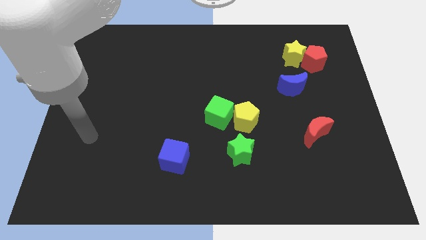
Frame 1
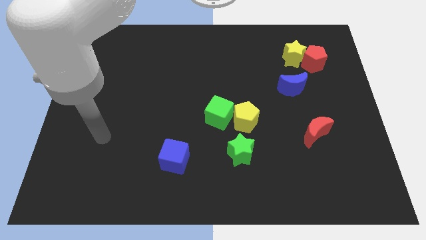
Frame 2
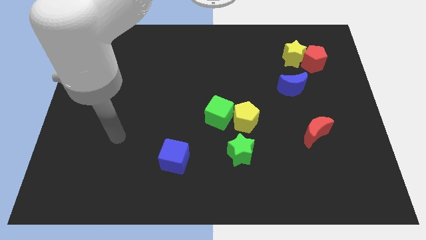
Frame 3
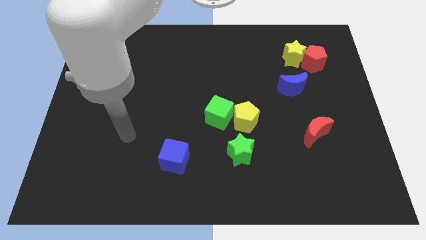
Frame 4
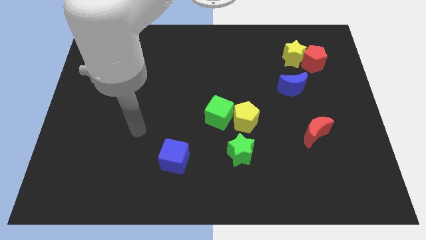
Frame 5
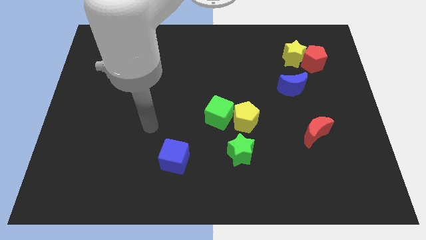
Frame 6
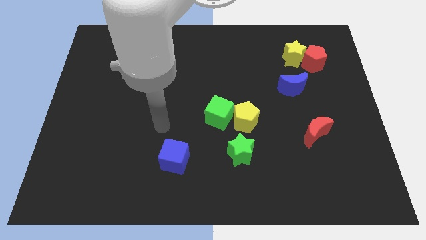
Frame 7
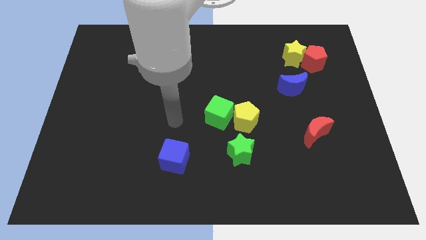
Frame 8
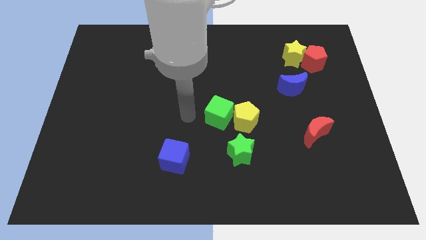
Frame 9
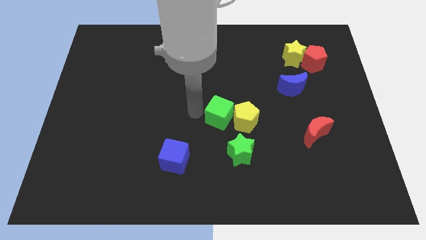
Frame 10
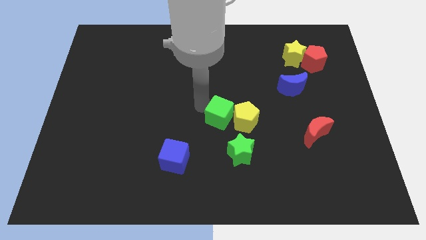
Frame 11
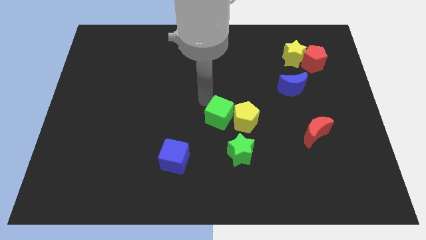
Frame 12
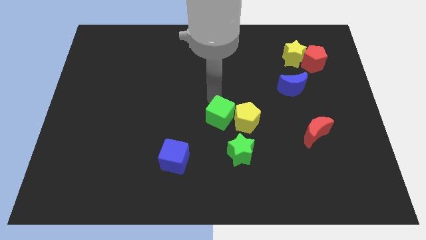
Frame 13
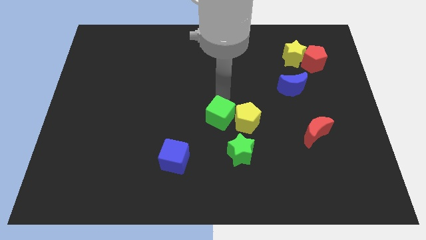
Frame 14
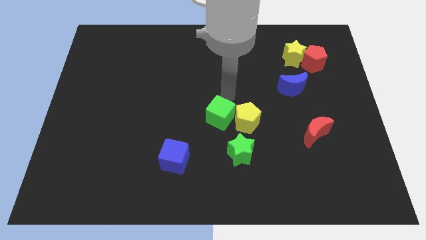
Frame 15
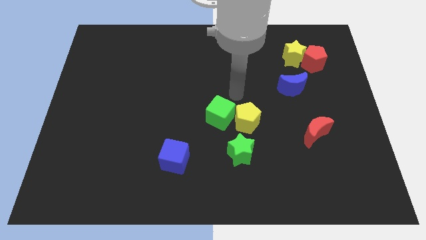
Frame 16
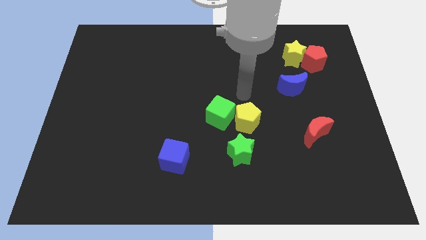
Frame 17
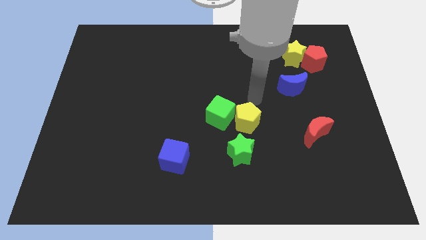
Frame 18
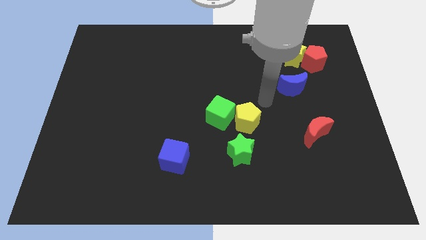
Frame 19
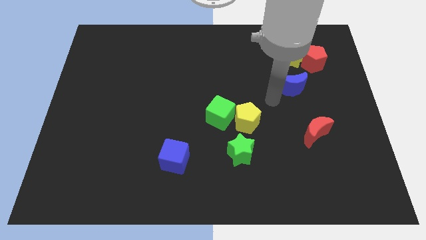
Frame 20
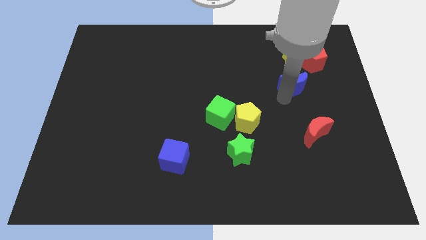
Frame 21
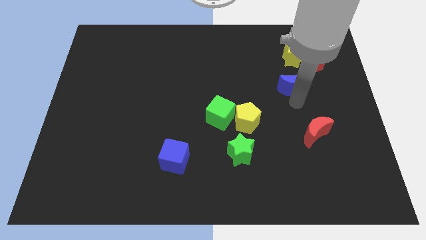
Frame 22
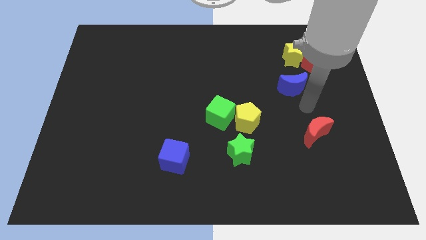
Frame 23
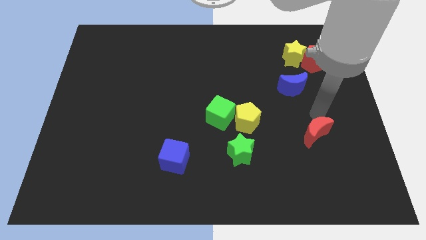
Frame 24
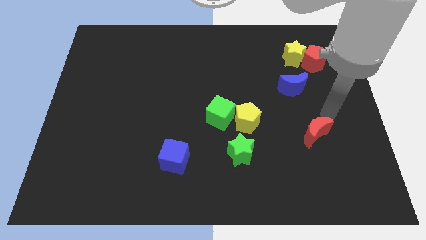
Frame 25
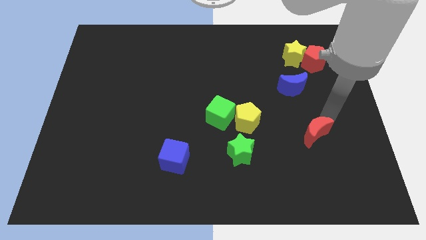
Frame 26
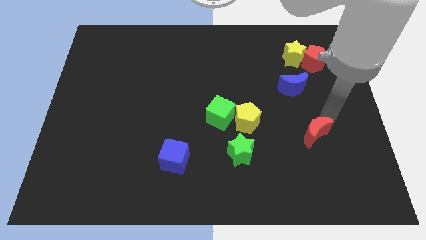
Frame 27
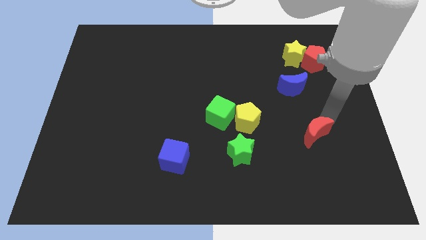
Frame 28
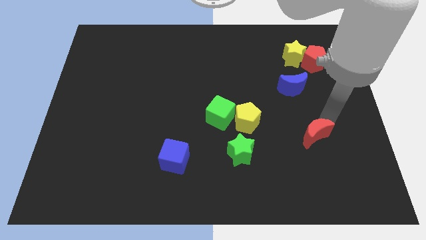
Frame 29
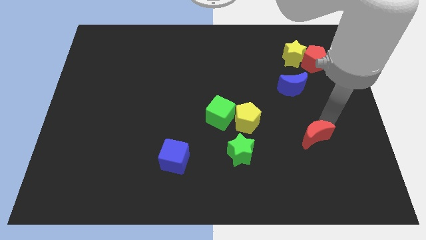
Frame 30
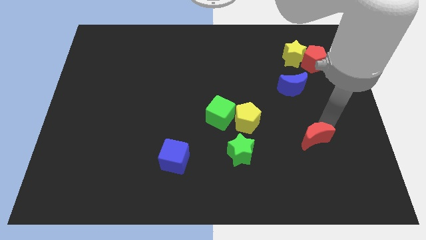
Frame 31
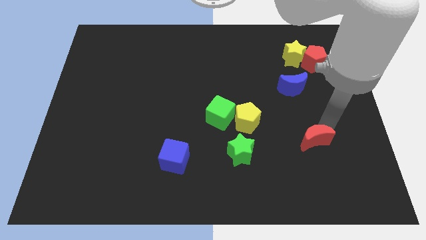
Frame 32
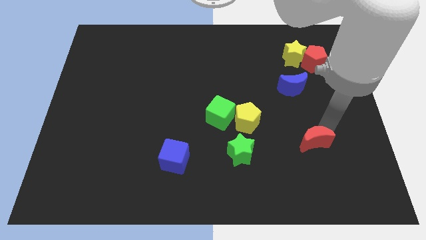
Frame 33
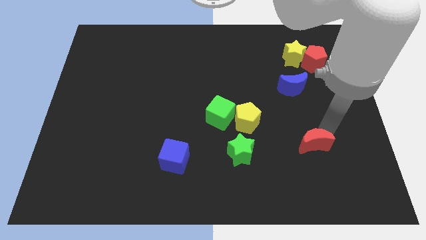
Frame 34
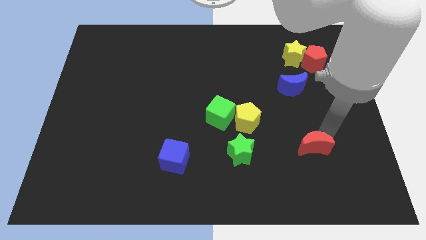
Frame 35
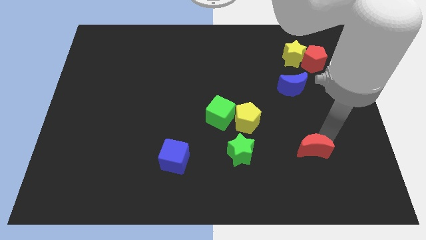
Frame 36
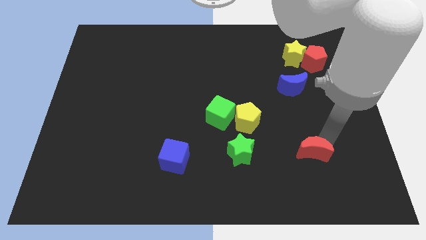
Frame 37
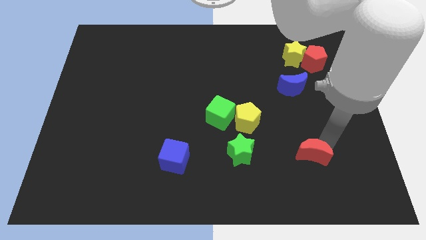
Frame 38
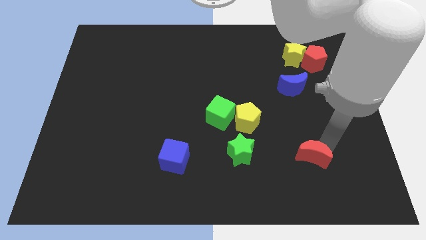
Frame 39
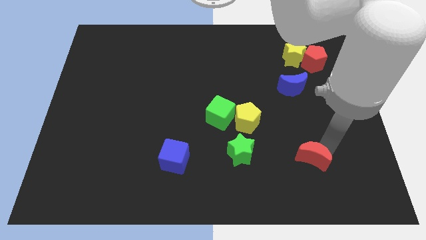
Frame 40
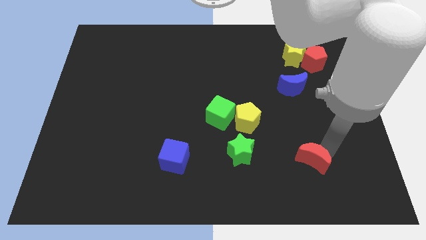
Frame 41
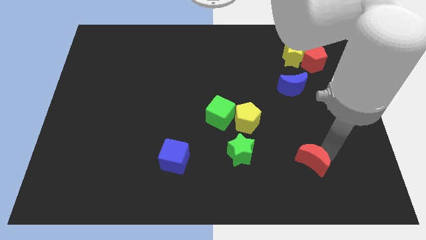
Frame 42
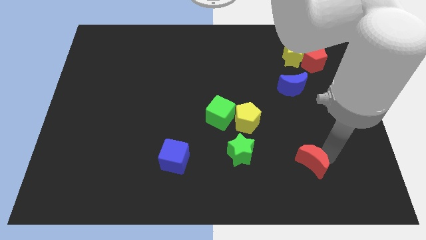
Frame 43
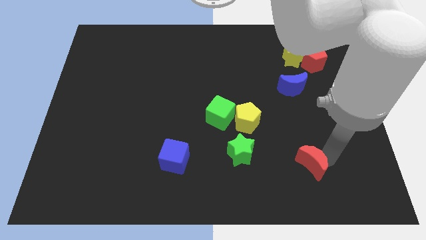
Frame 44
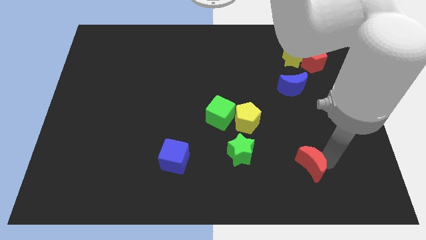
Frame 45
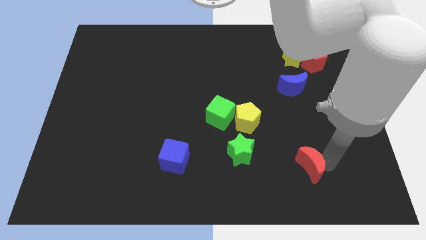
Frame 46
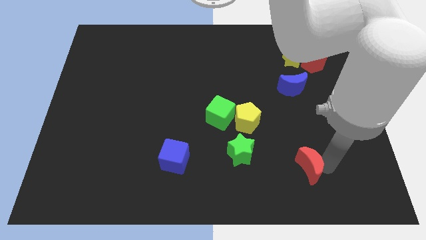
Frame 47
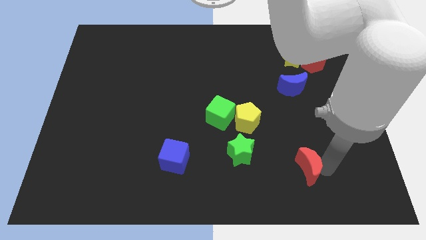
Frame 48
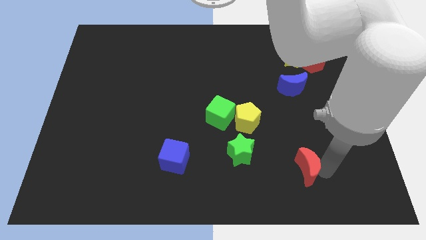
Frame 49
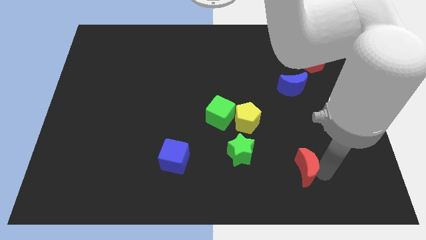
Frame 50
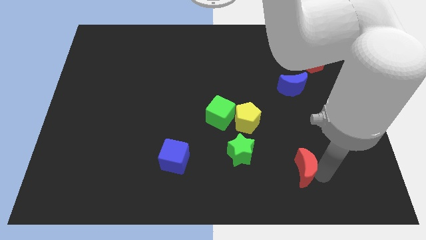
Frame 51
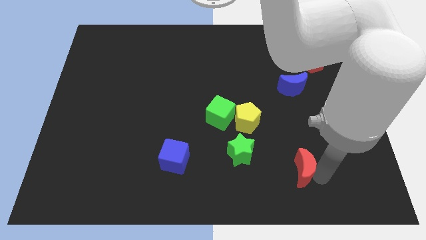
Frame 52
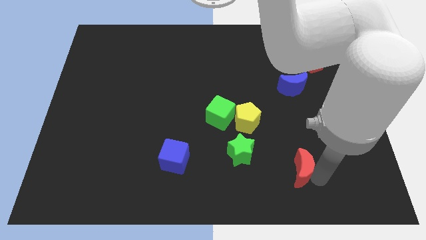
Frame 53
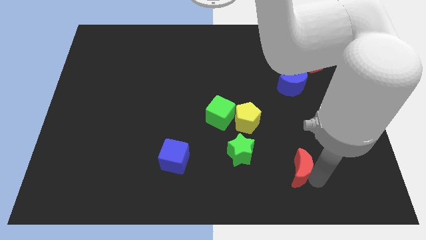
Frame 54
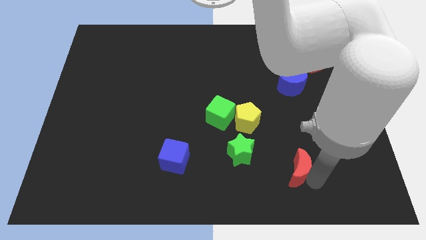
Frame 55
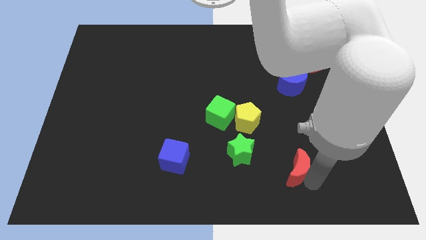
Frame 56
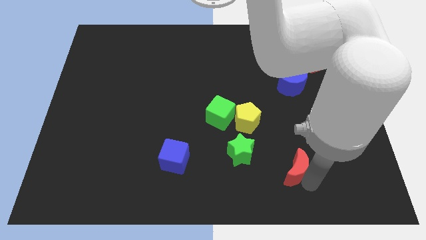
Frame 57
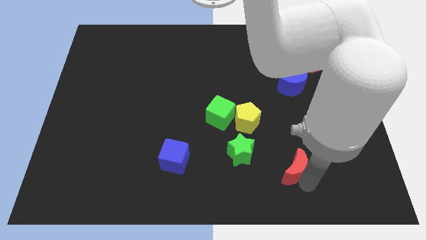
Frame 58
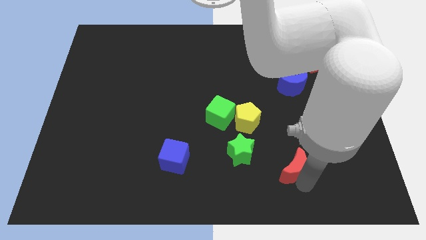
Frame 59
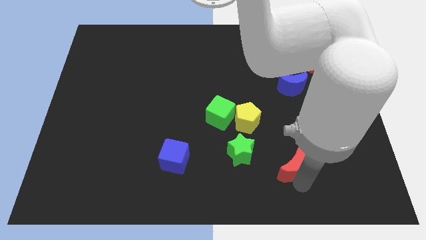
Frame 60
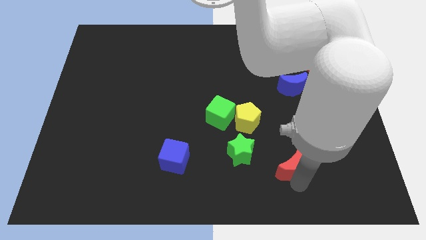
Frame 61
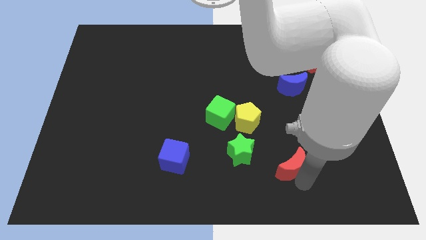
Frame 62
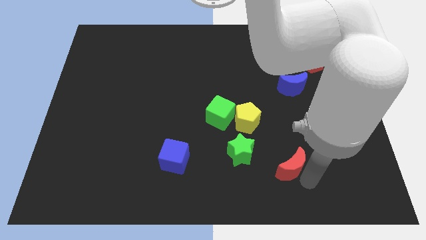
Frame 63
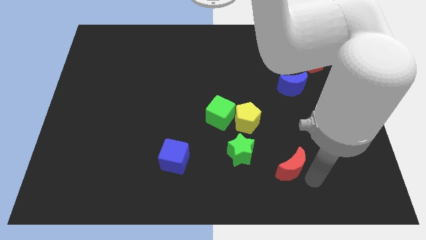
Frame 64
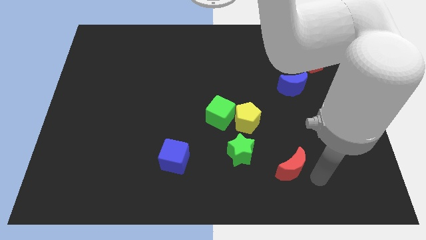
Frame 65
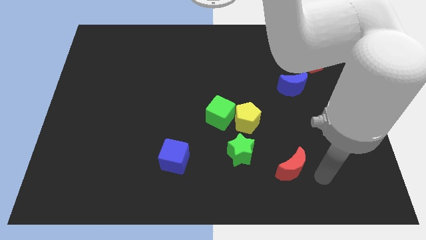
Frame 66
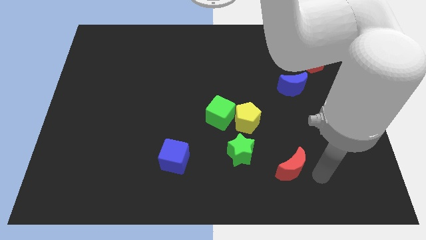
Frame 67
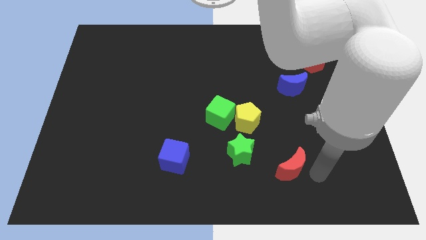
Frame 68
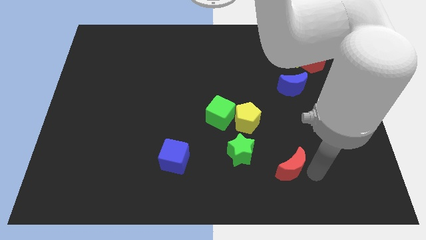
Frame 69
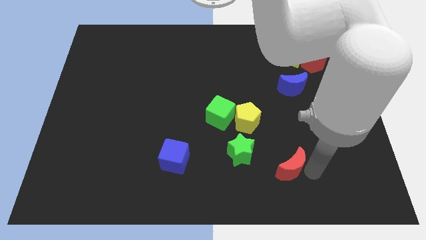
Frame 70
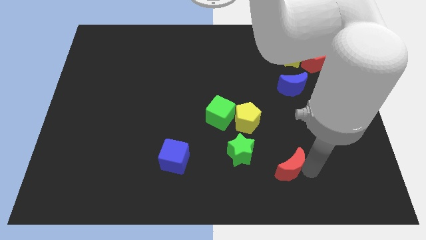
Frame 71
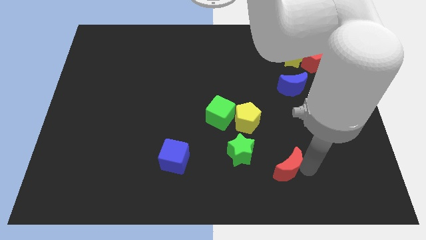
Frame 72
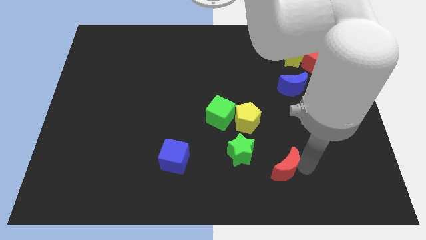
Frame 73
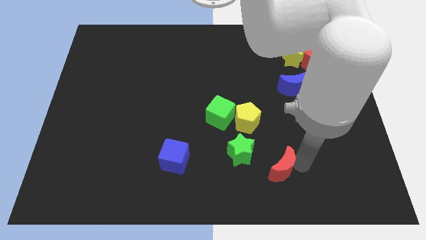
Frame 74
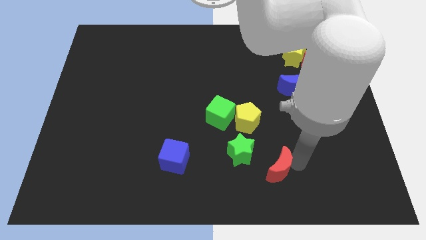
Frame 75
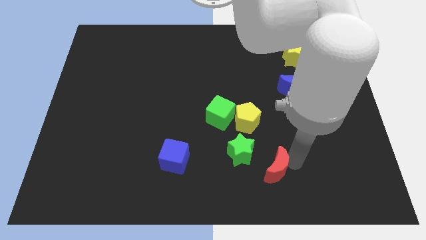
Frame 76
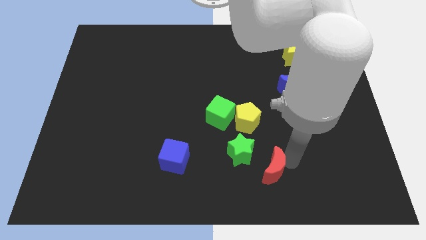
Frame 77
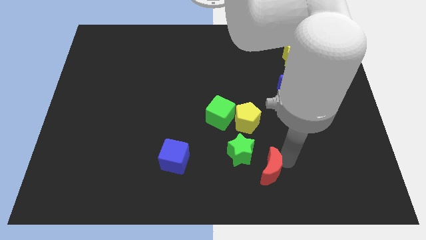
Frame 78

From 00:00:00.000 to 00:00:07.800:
move the red moon to the bottom side of the yellow pentagon
